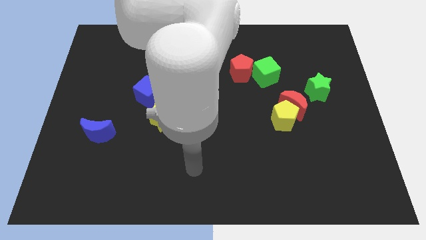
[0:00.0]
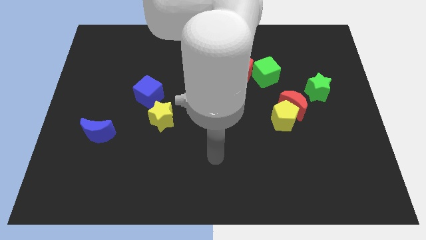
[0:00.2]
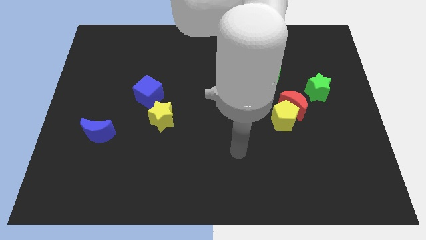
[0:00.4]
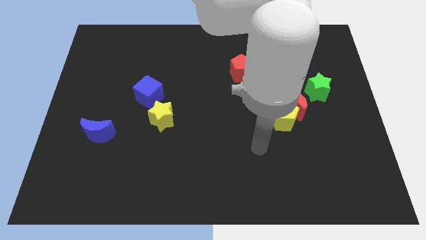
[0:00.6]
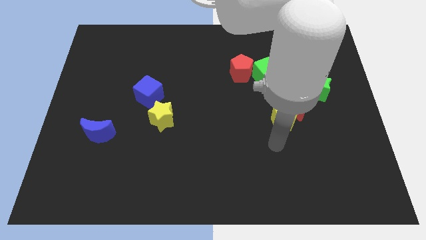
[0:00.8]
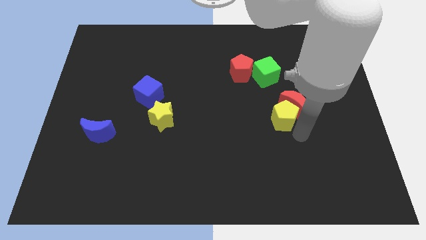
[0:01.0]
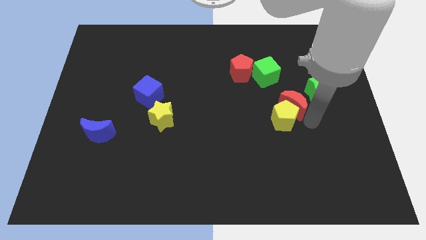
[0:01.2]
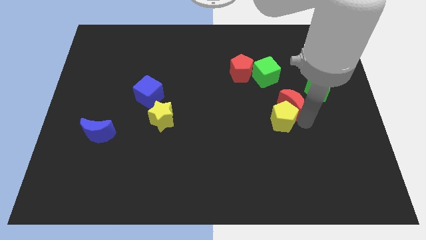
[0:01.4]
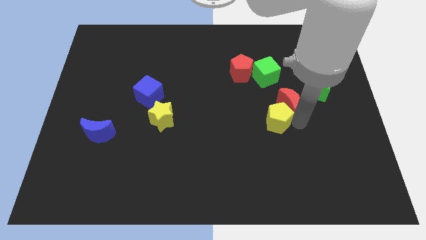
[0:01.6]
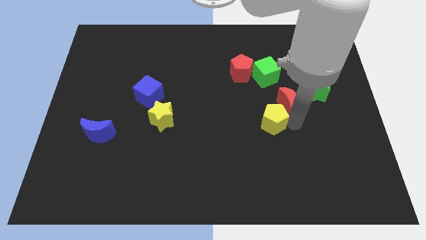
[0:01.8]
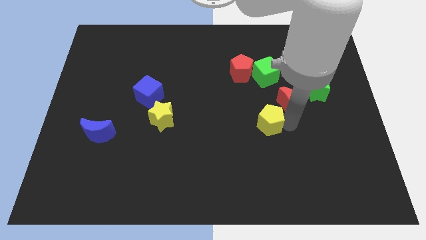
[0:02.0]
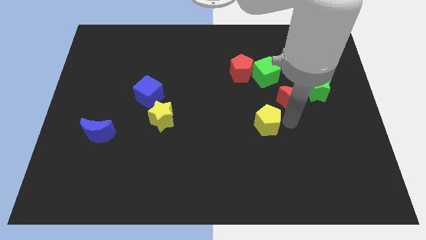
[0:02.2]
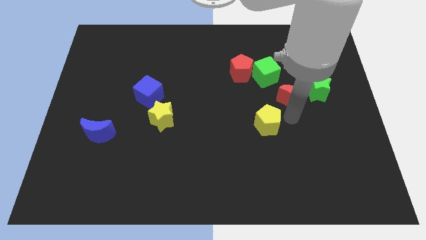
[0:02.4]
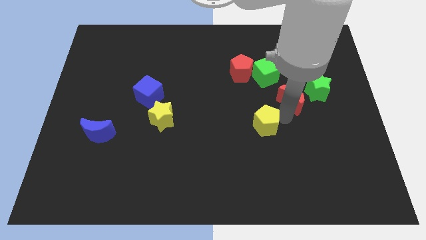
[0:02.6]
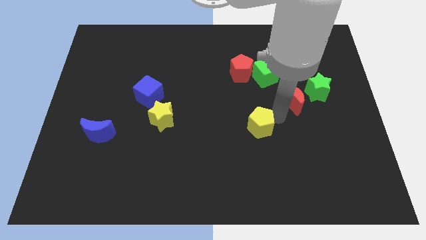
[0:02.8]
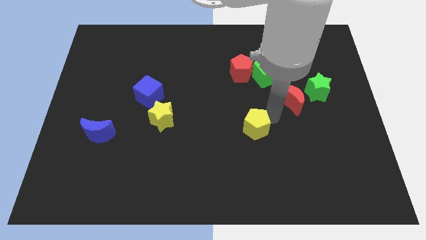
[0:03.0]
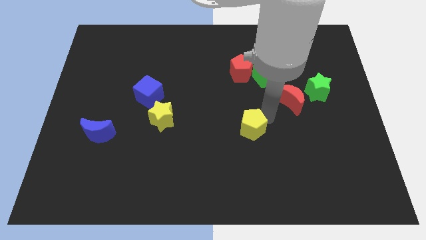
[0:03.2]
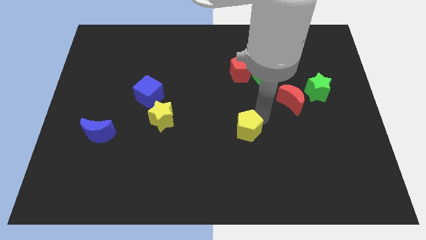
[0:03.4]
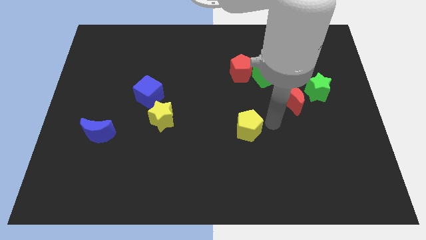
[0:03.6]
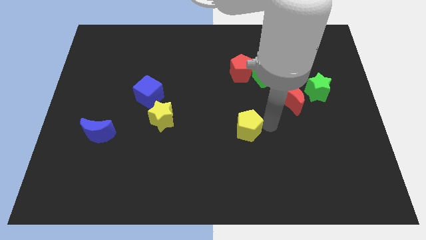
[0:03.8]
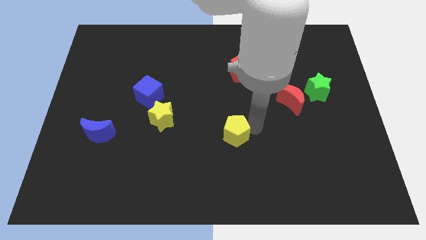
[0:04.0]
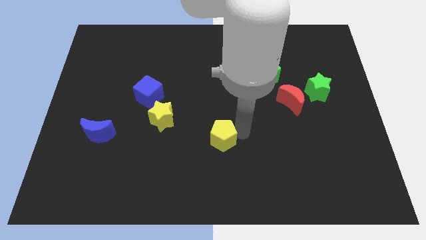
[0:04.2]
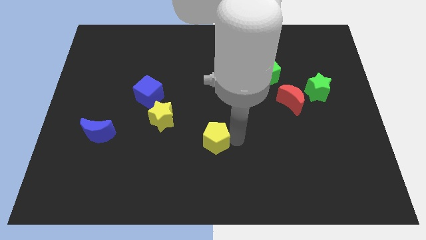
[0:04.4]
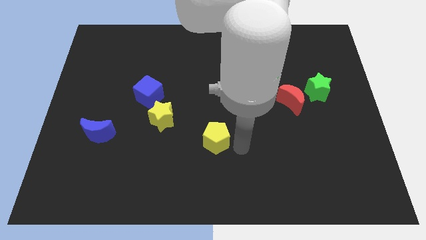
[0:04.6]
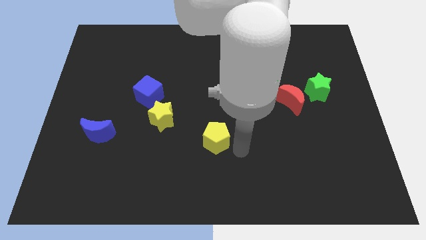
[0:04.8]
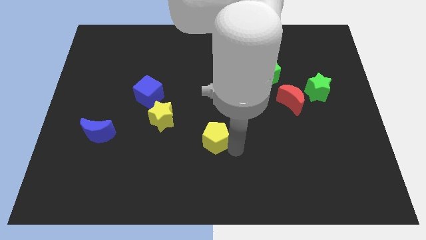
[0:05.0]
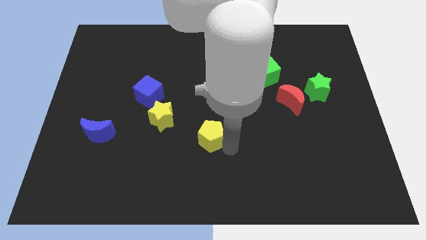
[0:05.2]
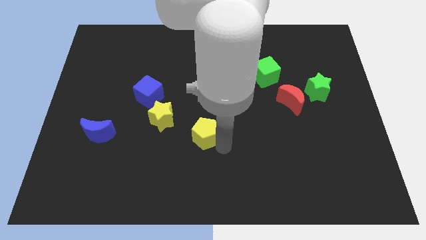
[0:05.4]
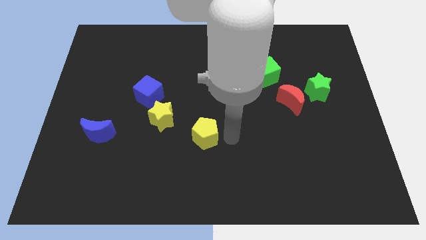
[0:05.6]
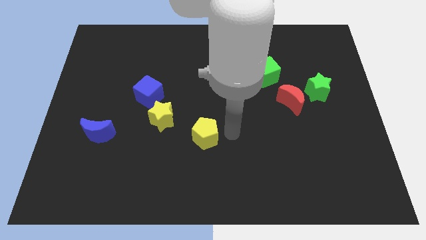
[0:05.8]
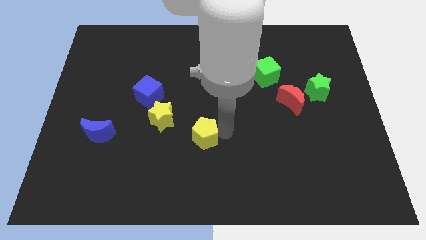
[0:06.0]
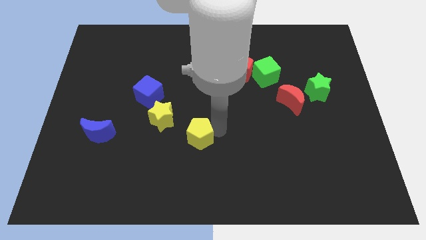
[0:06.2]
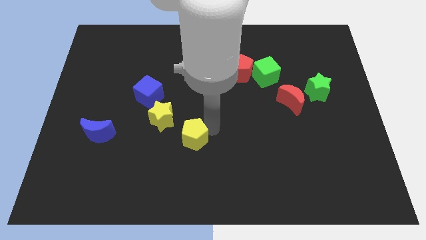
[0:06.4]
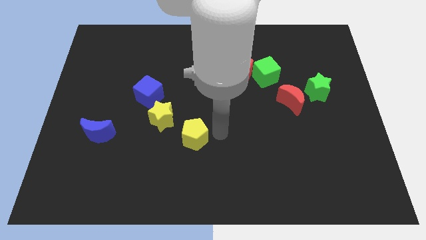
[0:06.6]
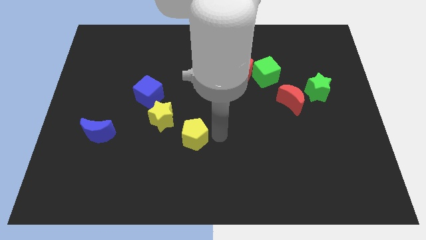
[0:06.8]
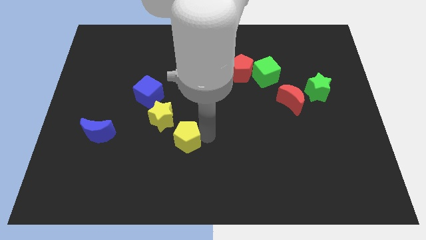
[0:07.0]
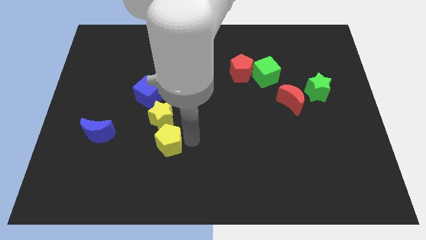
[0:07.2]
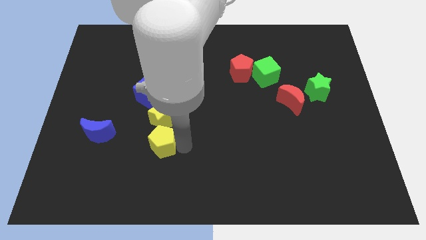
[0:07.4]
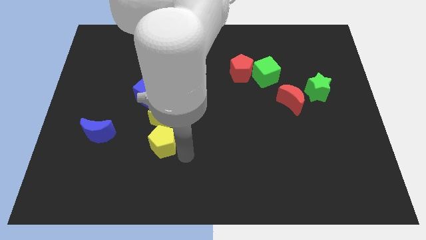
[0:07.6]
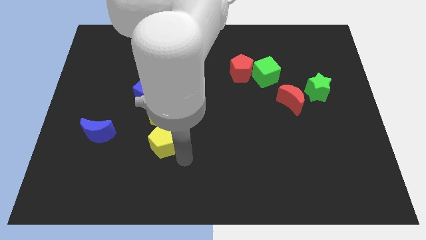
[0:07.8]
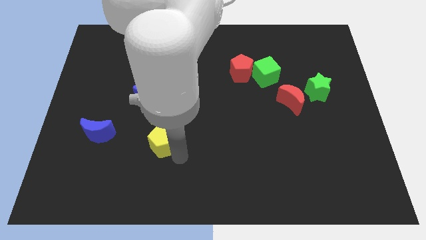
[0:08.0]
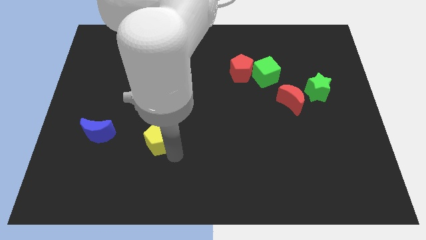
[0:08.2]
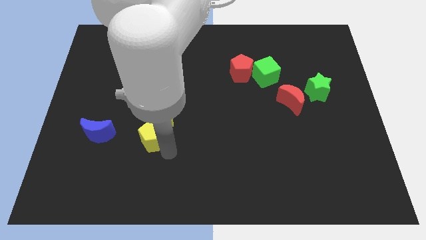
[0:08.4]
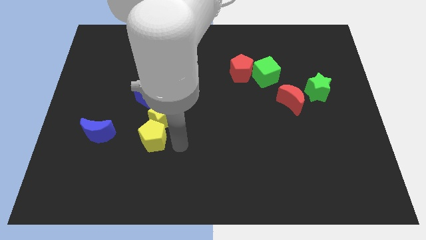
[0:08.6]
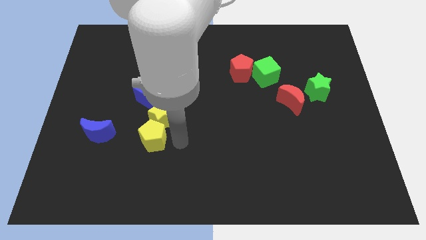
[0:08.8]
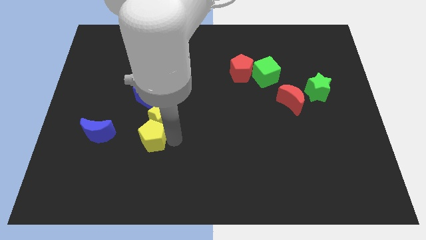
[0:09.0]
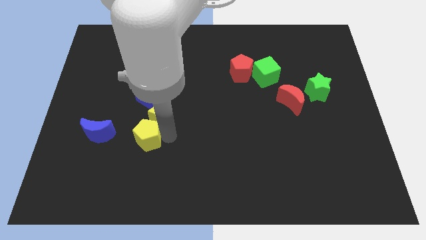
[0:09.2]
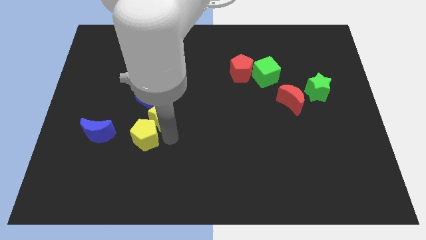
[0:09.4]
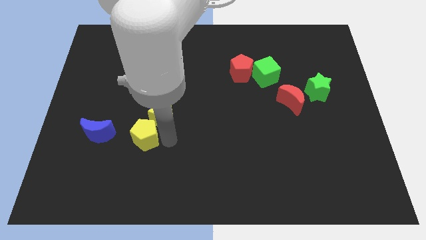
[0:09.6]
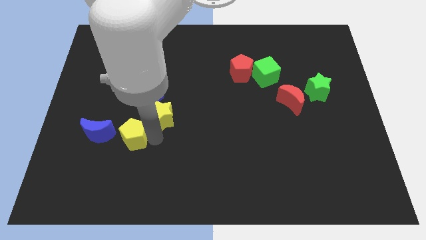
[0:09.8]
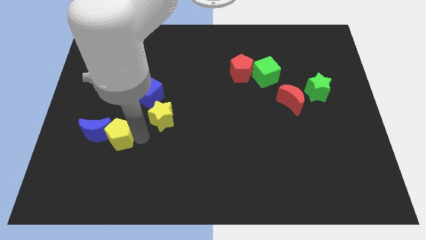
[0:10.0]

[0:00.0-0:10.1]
put the yellow pentagon next to the blue moon

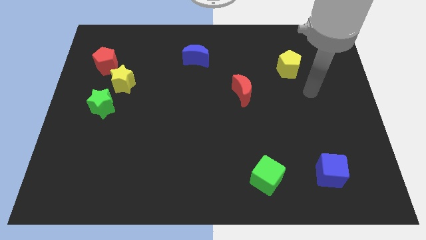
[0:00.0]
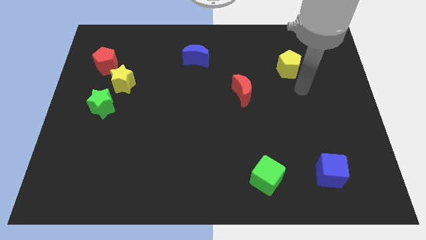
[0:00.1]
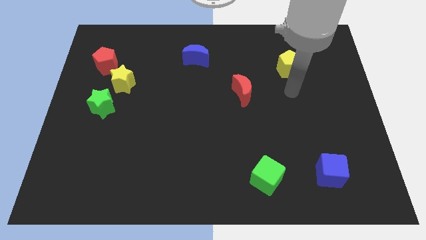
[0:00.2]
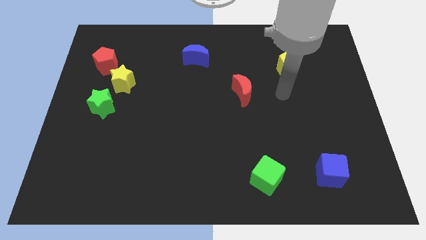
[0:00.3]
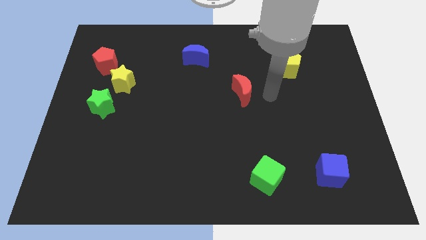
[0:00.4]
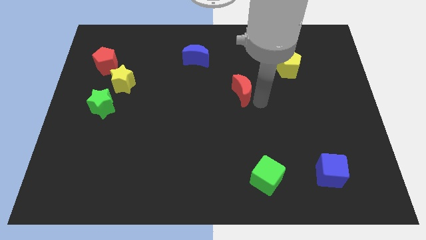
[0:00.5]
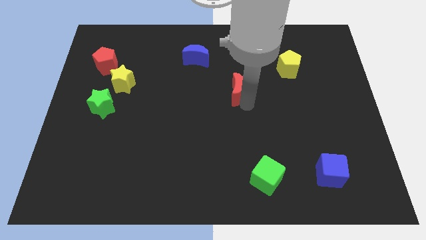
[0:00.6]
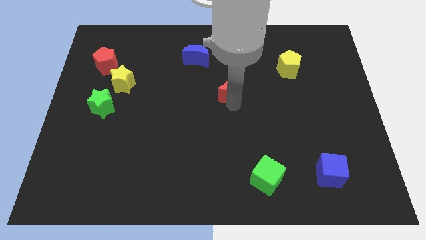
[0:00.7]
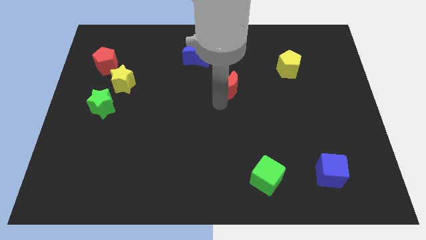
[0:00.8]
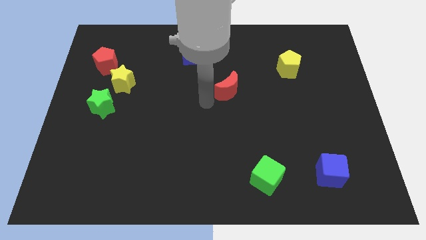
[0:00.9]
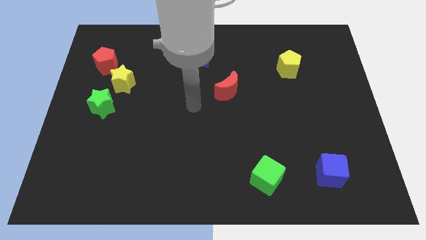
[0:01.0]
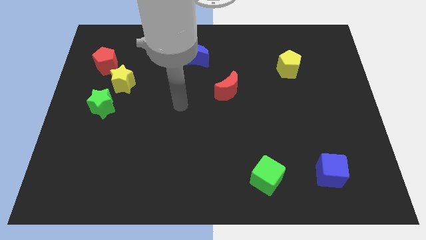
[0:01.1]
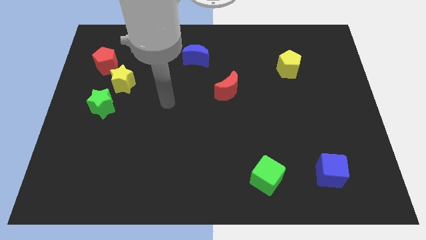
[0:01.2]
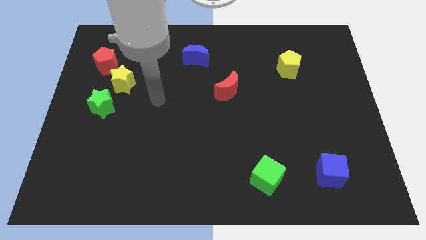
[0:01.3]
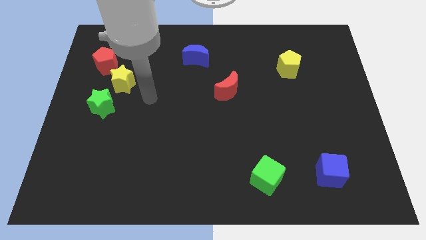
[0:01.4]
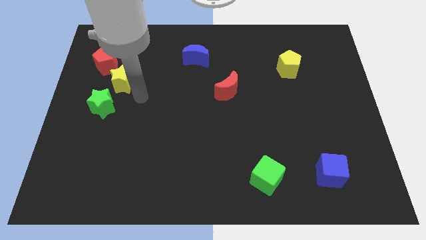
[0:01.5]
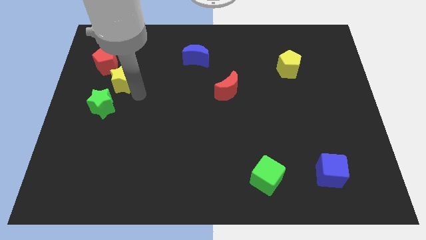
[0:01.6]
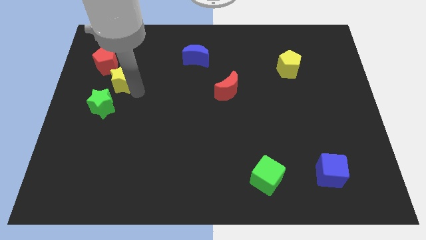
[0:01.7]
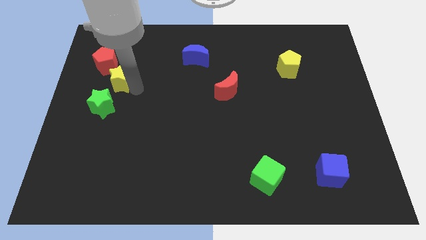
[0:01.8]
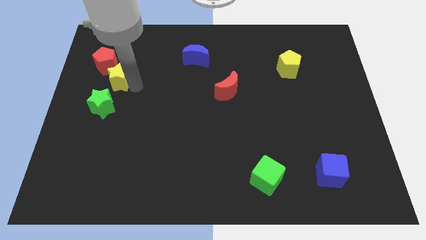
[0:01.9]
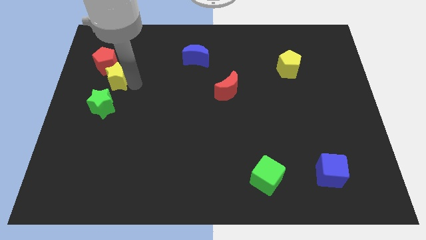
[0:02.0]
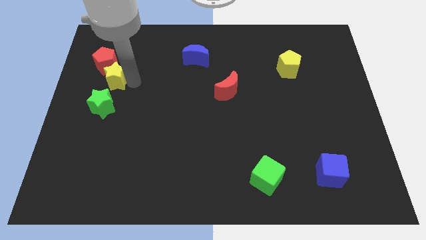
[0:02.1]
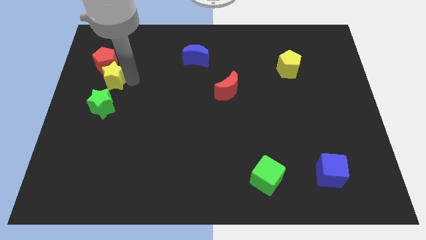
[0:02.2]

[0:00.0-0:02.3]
push the yellow star close to the red pentagon

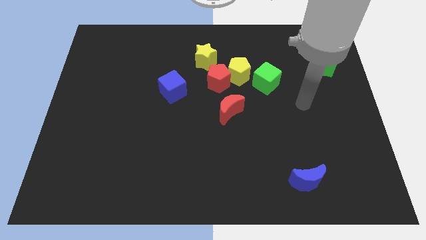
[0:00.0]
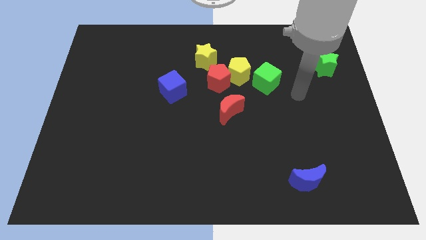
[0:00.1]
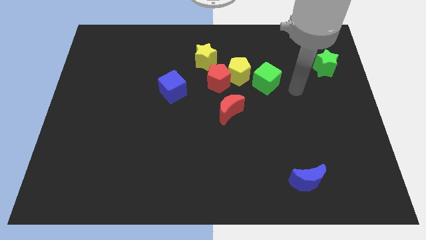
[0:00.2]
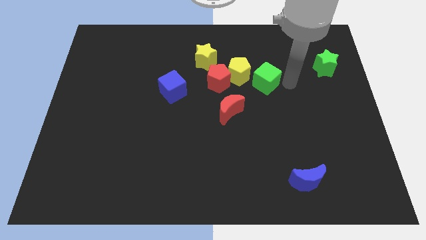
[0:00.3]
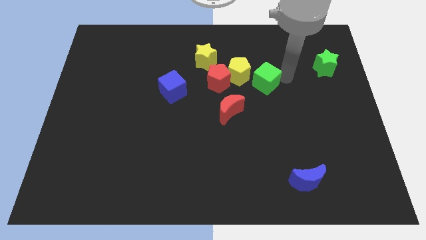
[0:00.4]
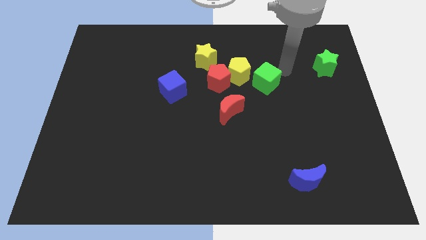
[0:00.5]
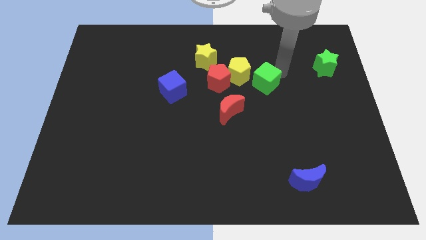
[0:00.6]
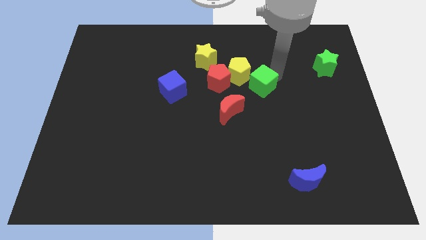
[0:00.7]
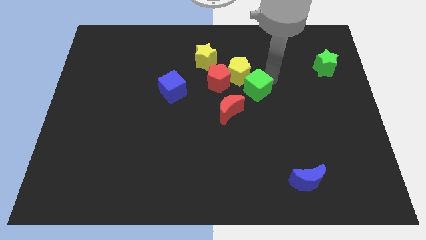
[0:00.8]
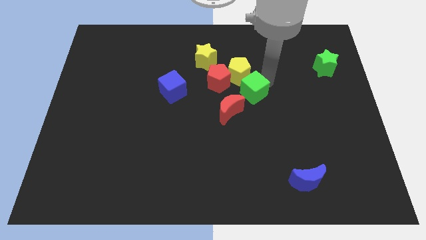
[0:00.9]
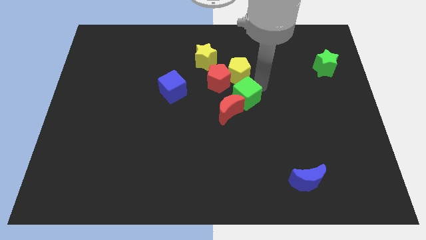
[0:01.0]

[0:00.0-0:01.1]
put the green cube next to the red moon
